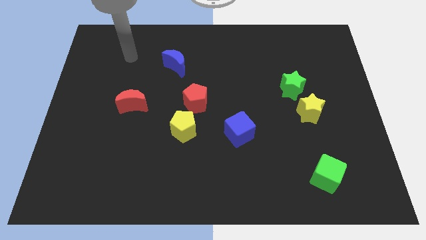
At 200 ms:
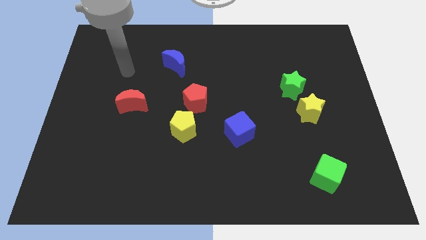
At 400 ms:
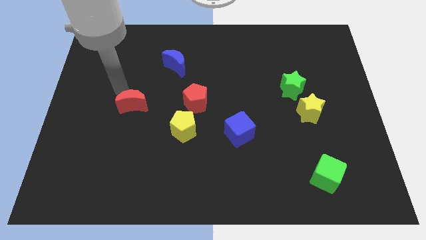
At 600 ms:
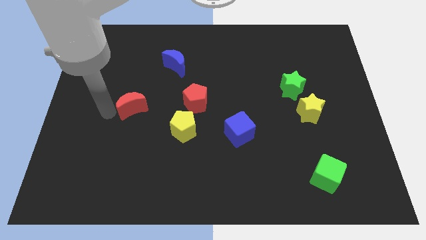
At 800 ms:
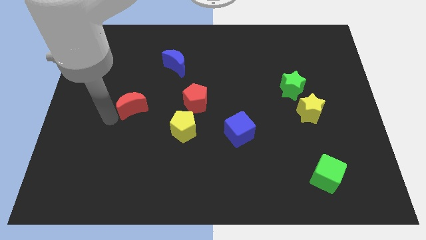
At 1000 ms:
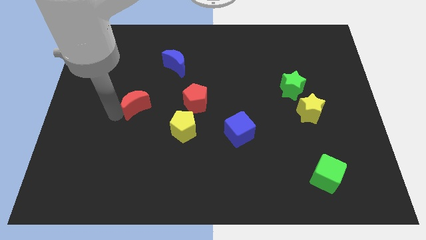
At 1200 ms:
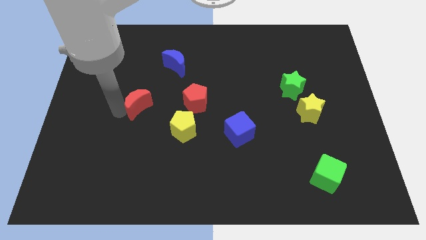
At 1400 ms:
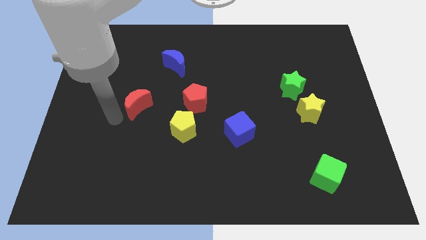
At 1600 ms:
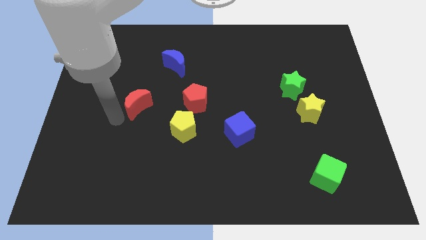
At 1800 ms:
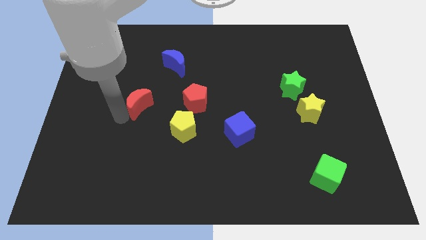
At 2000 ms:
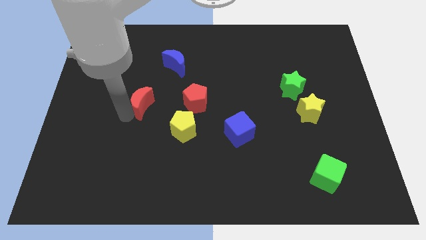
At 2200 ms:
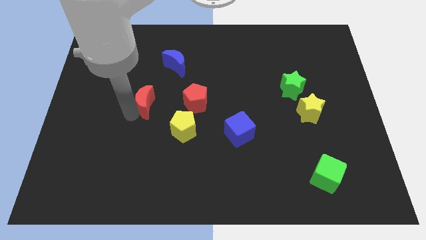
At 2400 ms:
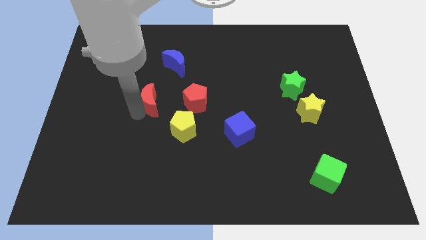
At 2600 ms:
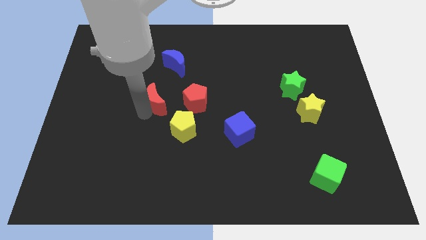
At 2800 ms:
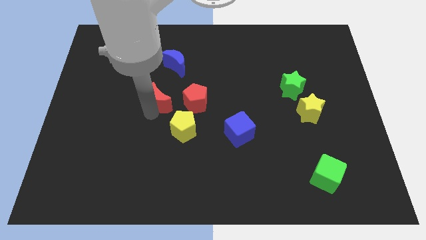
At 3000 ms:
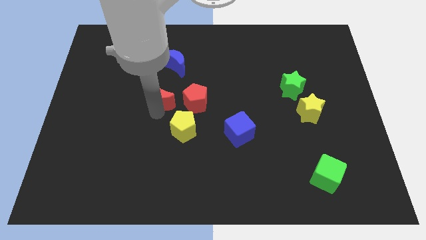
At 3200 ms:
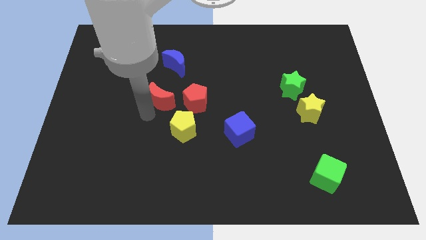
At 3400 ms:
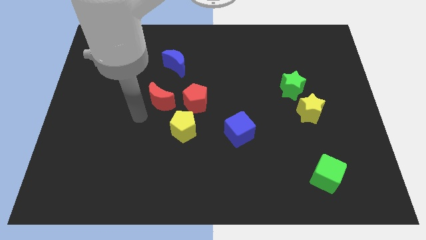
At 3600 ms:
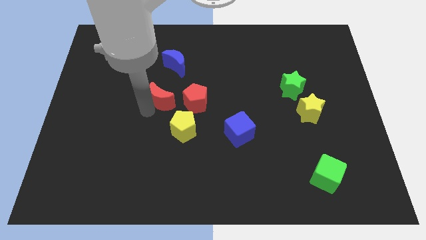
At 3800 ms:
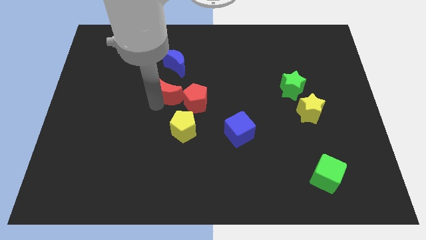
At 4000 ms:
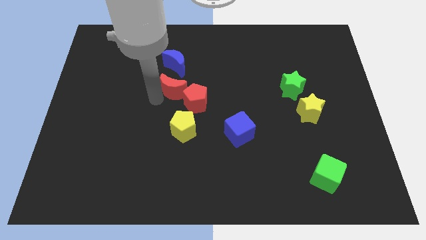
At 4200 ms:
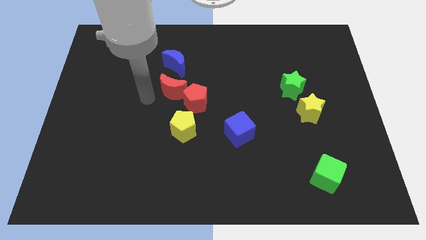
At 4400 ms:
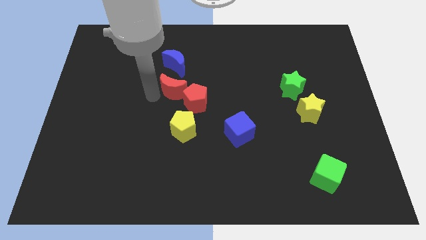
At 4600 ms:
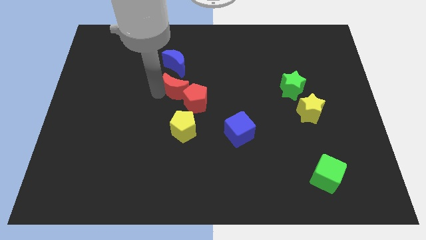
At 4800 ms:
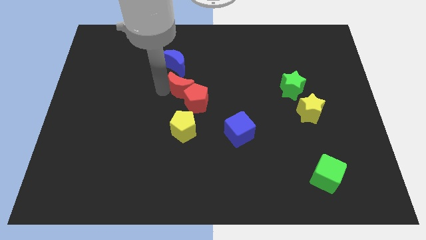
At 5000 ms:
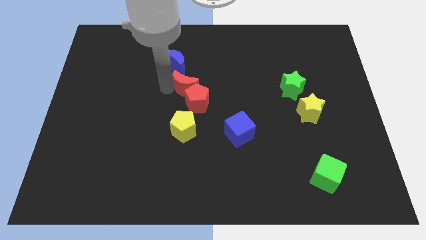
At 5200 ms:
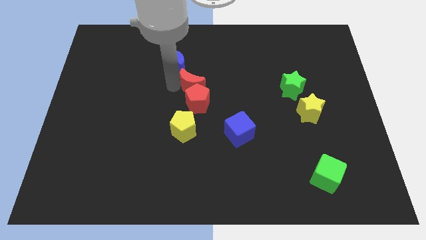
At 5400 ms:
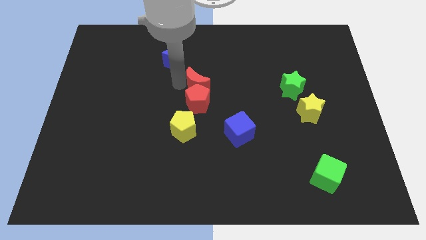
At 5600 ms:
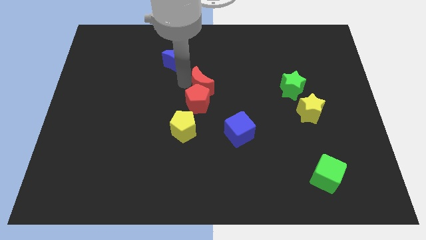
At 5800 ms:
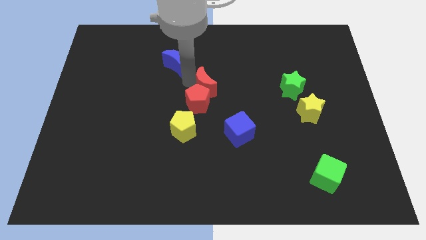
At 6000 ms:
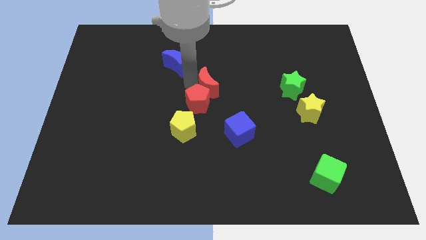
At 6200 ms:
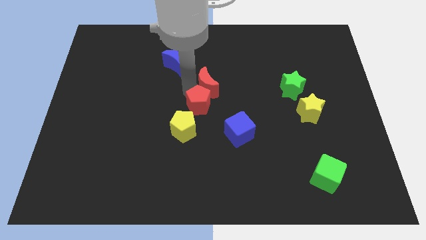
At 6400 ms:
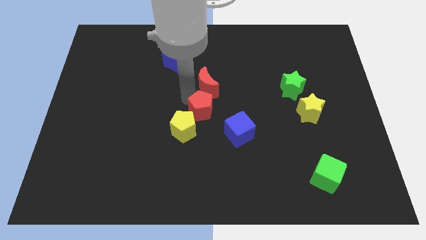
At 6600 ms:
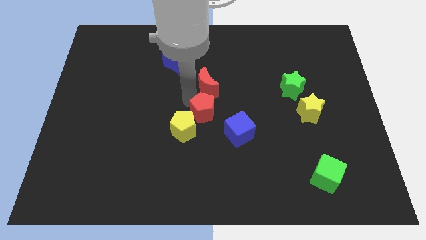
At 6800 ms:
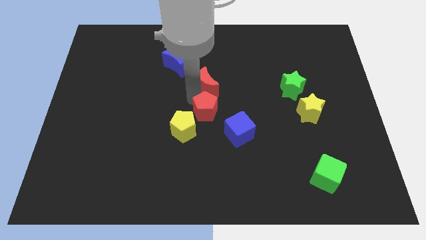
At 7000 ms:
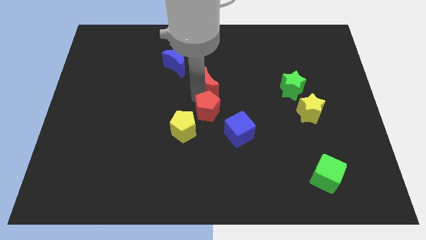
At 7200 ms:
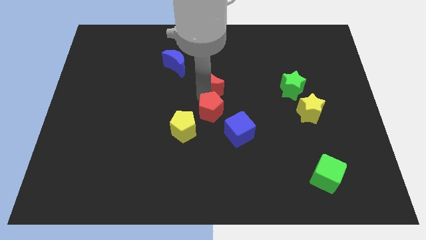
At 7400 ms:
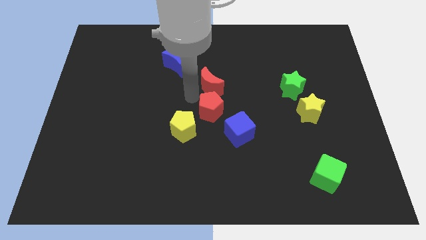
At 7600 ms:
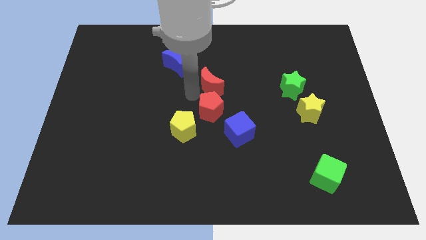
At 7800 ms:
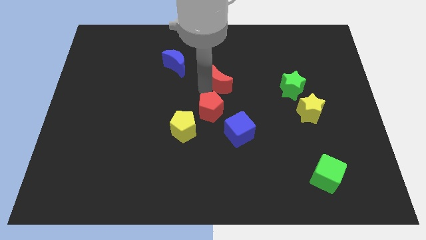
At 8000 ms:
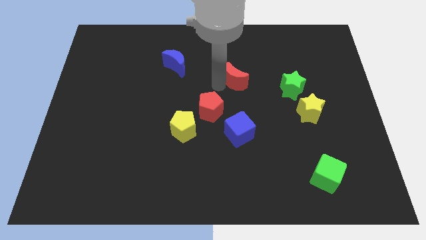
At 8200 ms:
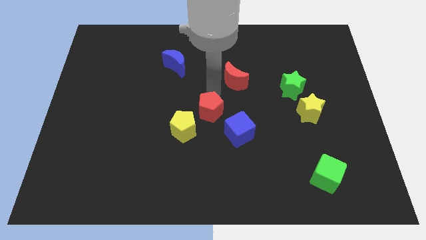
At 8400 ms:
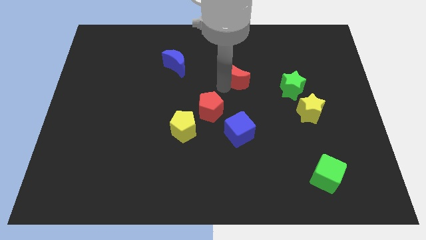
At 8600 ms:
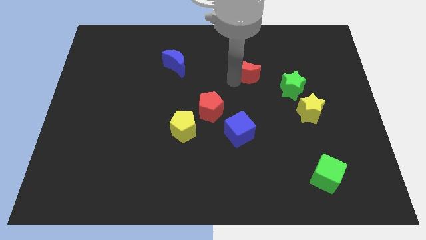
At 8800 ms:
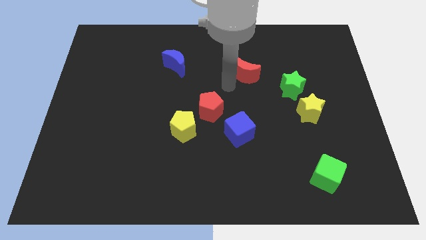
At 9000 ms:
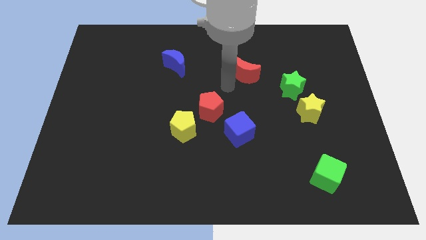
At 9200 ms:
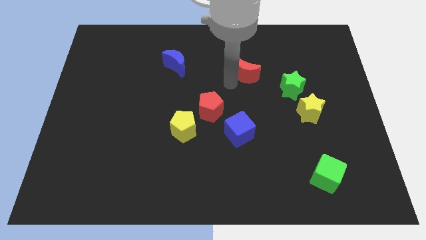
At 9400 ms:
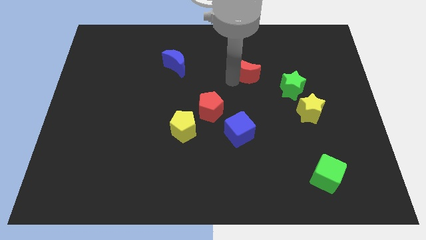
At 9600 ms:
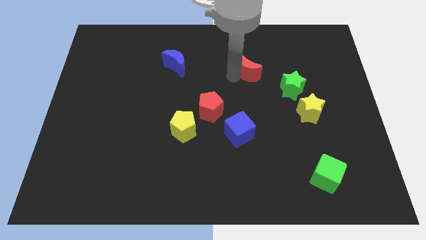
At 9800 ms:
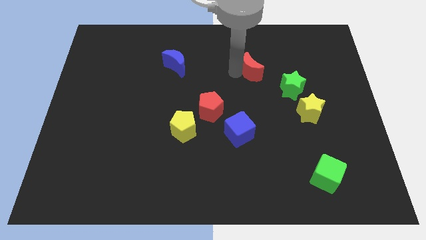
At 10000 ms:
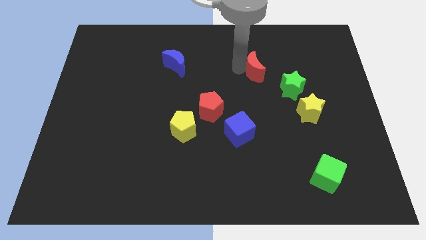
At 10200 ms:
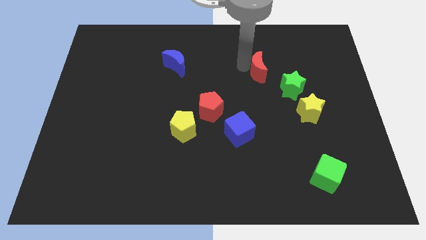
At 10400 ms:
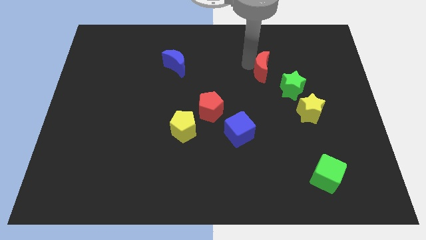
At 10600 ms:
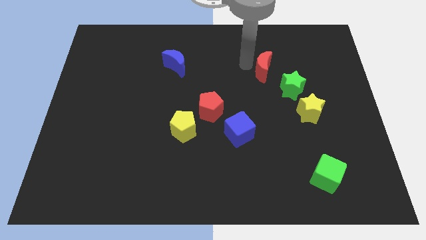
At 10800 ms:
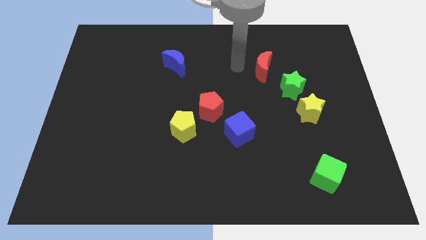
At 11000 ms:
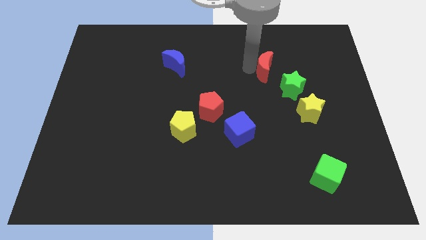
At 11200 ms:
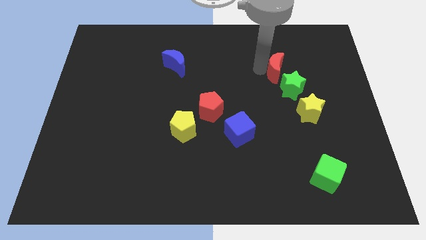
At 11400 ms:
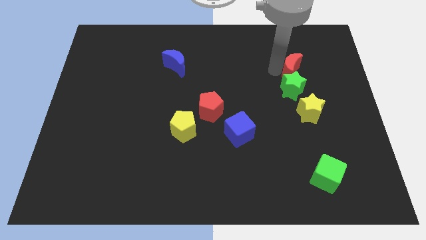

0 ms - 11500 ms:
move the red moon diagonally up and to the right of the green star
